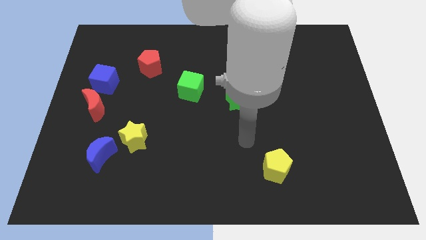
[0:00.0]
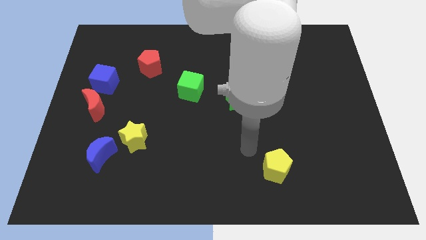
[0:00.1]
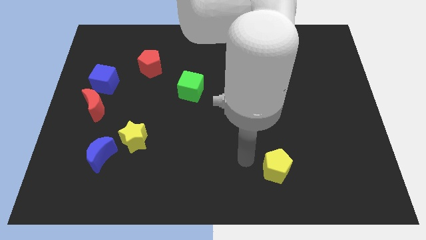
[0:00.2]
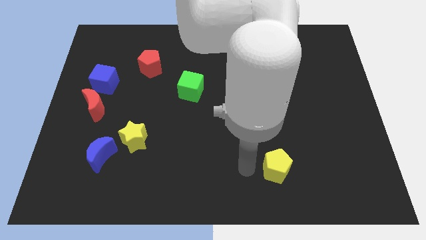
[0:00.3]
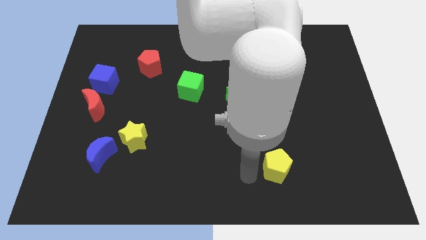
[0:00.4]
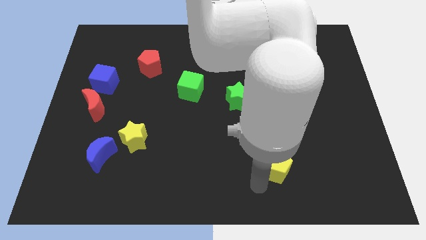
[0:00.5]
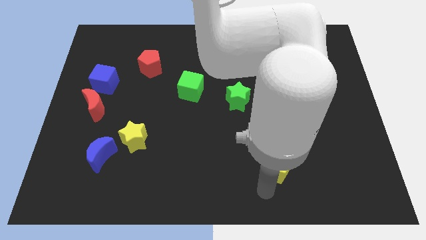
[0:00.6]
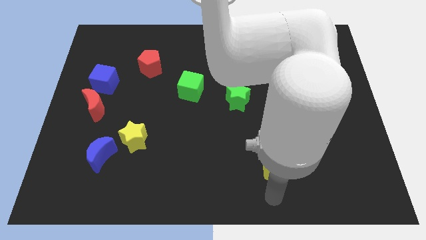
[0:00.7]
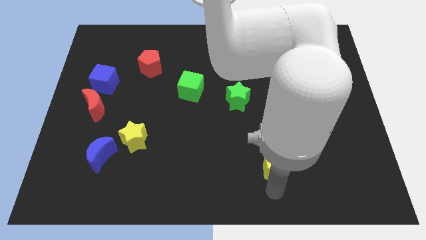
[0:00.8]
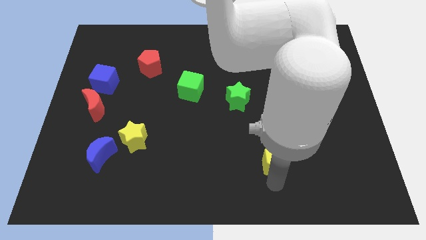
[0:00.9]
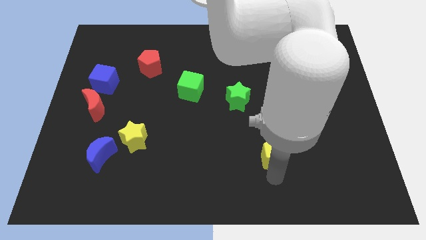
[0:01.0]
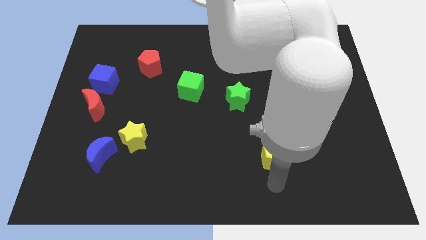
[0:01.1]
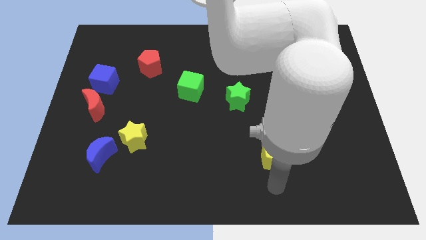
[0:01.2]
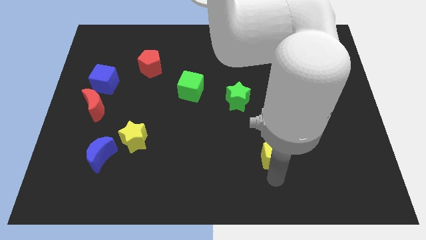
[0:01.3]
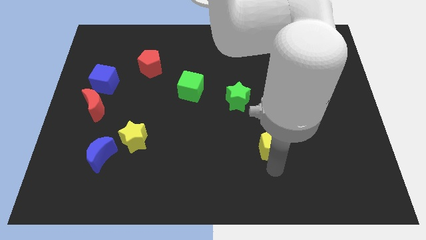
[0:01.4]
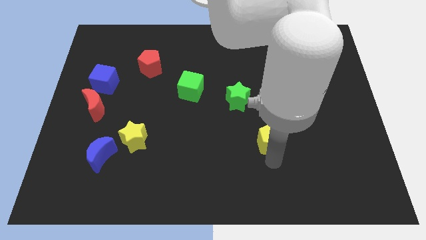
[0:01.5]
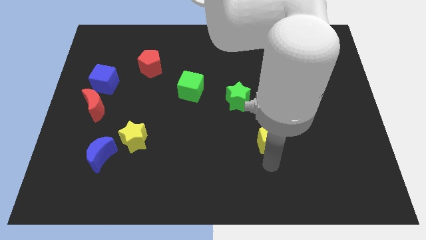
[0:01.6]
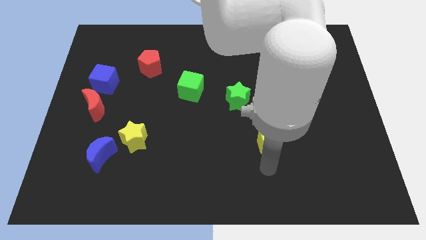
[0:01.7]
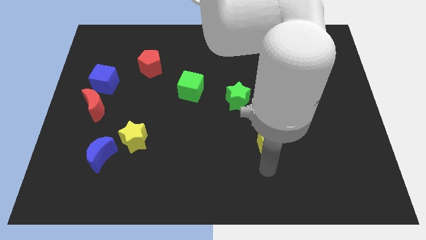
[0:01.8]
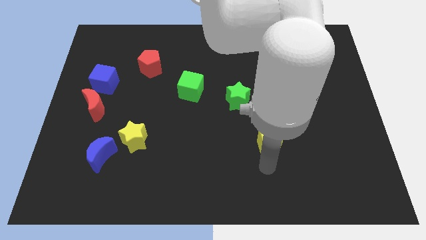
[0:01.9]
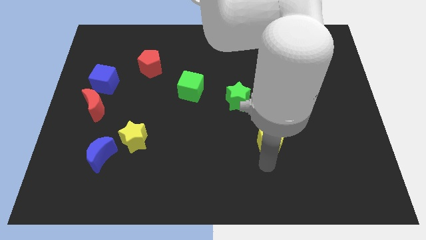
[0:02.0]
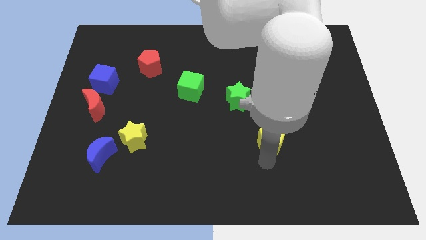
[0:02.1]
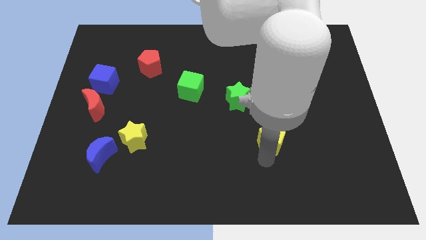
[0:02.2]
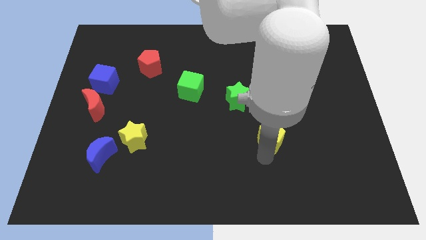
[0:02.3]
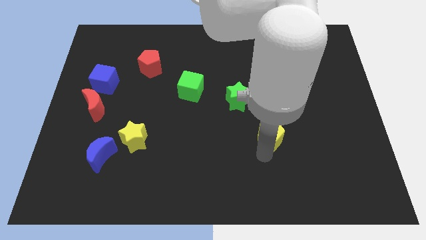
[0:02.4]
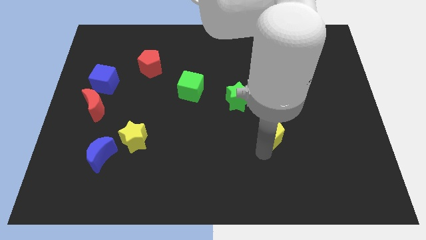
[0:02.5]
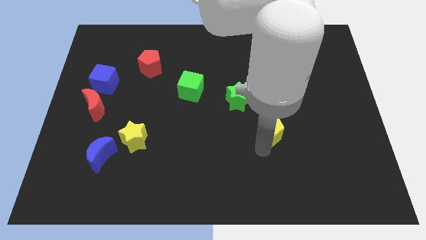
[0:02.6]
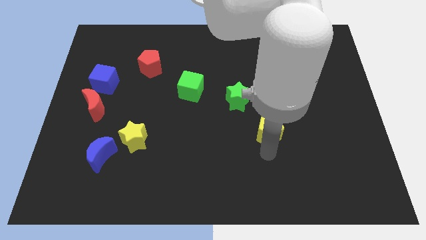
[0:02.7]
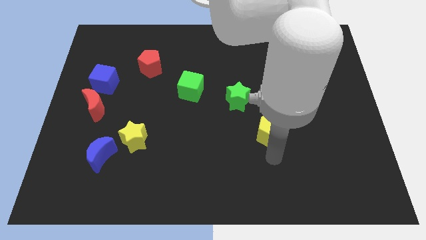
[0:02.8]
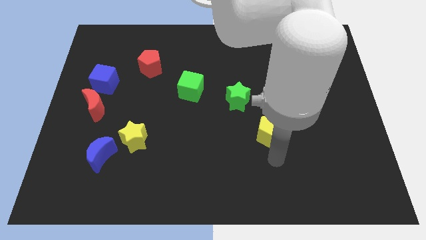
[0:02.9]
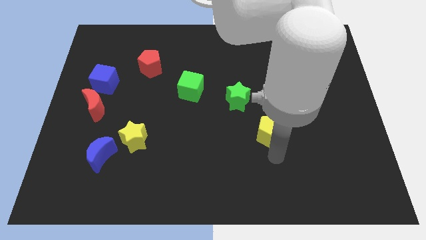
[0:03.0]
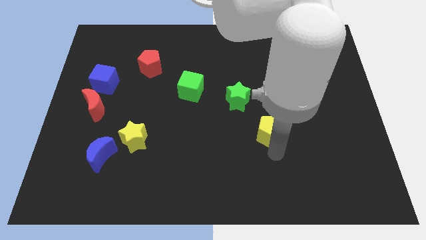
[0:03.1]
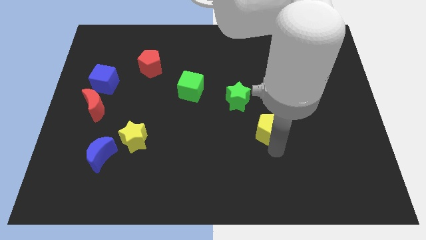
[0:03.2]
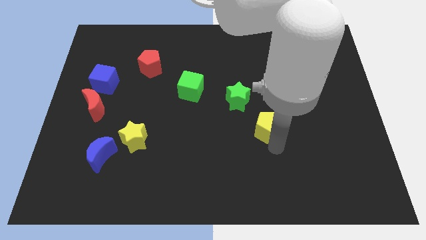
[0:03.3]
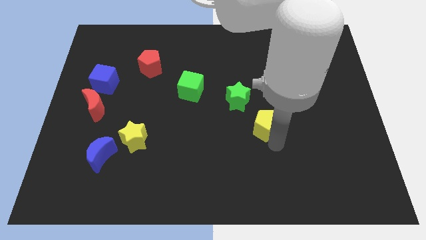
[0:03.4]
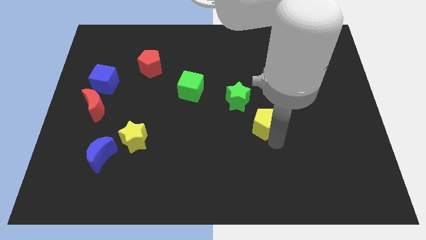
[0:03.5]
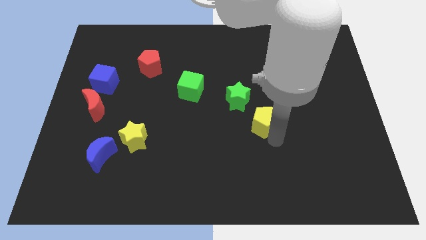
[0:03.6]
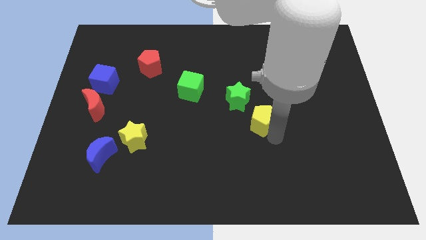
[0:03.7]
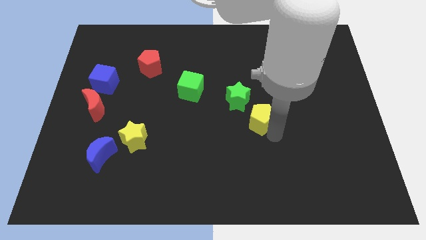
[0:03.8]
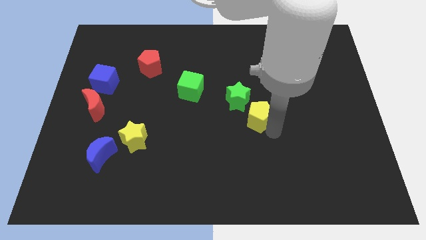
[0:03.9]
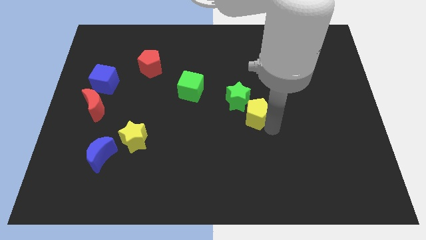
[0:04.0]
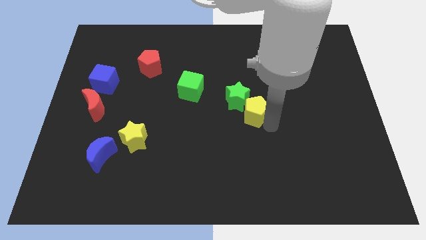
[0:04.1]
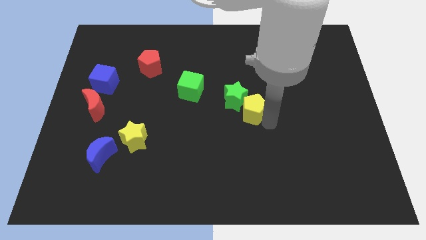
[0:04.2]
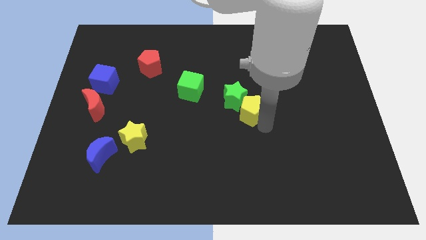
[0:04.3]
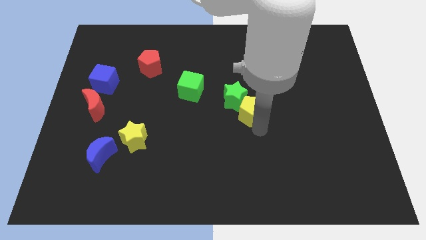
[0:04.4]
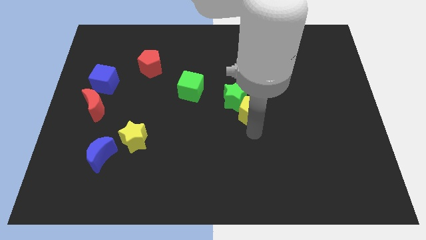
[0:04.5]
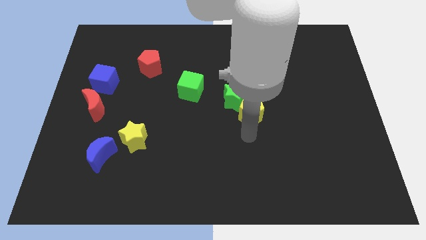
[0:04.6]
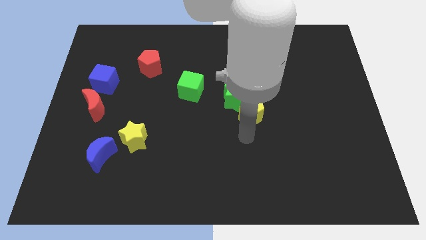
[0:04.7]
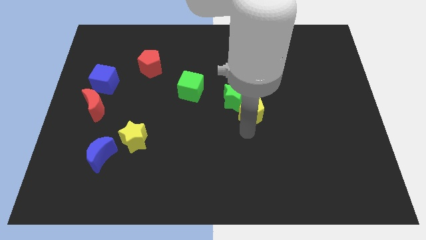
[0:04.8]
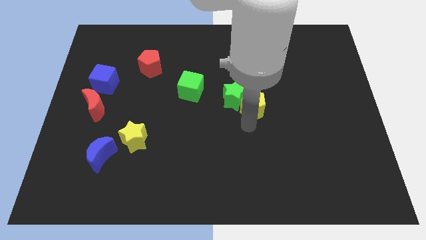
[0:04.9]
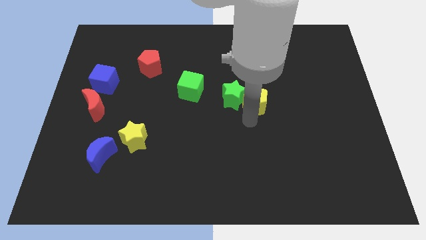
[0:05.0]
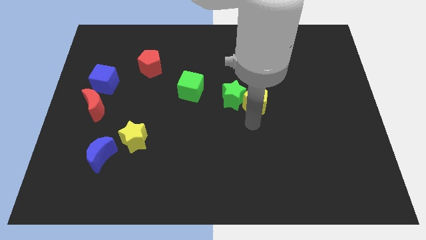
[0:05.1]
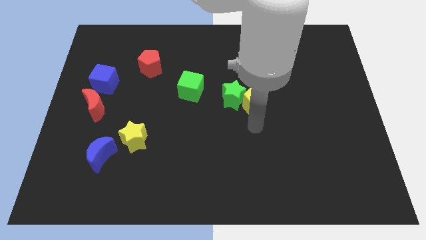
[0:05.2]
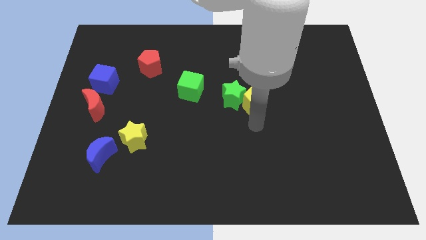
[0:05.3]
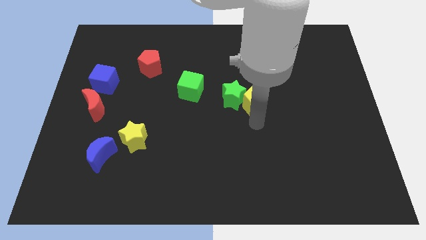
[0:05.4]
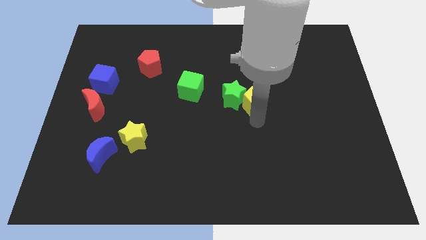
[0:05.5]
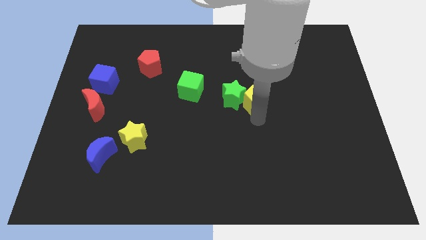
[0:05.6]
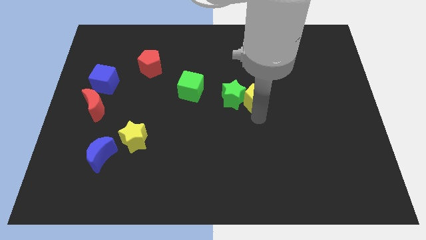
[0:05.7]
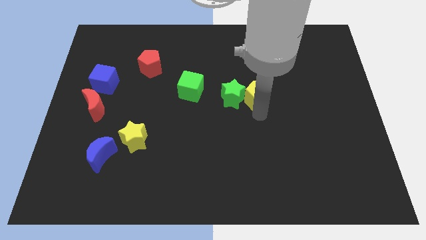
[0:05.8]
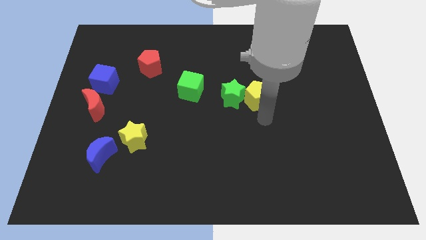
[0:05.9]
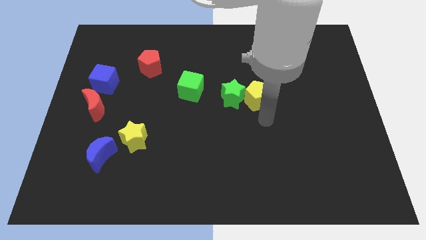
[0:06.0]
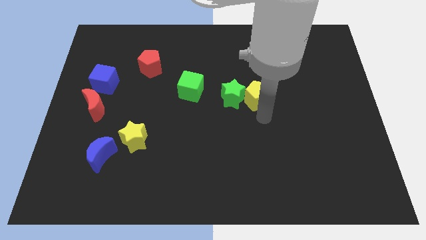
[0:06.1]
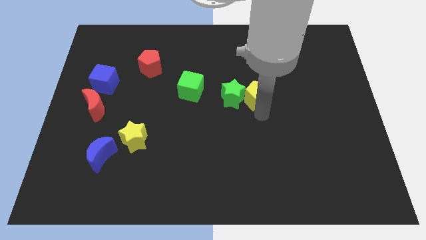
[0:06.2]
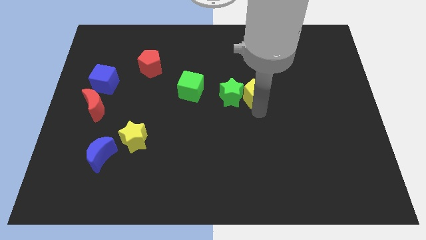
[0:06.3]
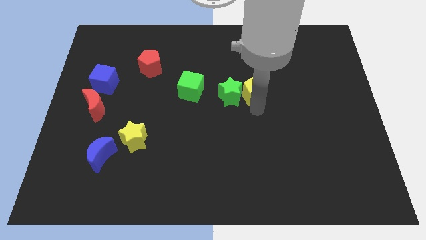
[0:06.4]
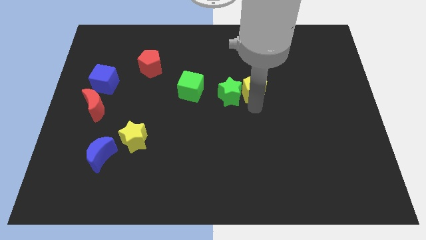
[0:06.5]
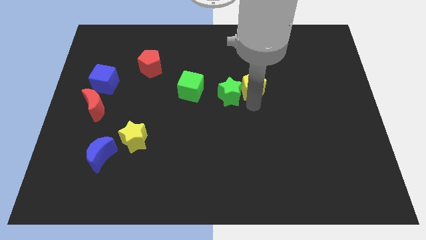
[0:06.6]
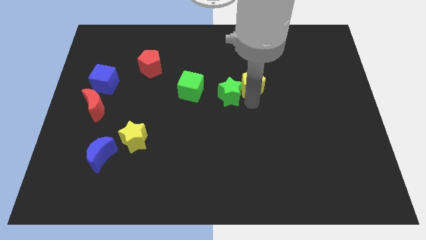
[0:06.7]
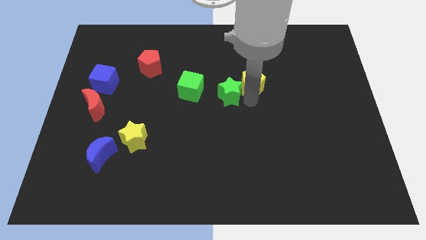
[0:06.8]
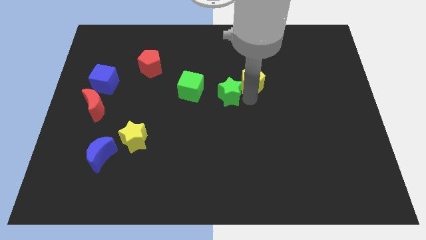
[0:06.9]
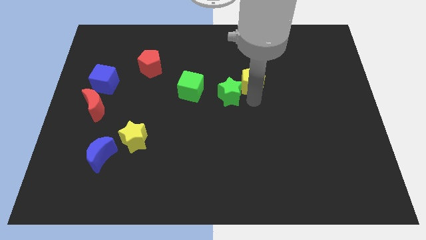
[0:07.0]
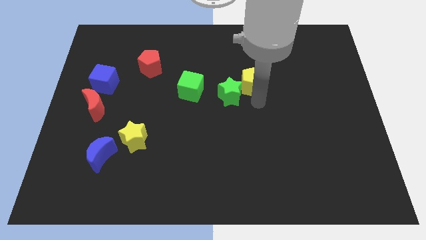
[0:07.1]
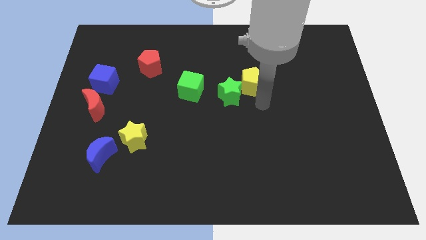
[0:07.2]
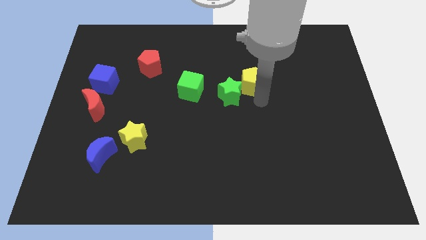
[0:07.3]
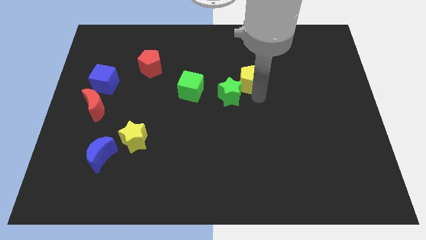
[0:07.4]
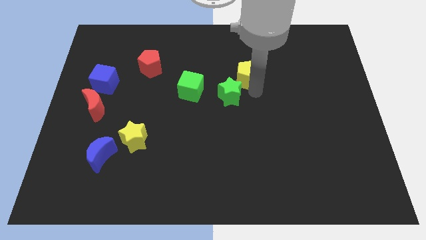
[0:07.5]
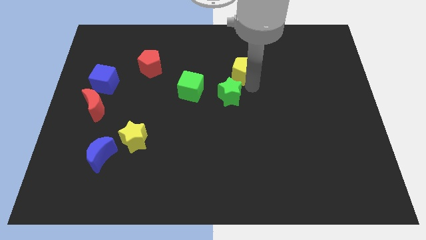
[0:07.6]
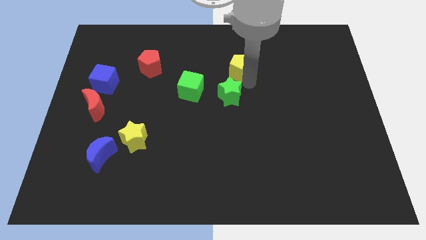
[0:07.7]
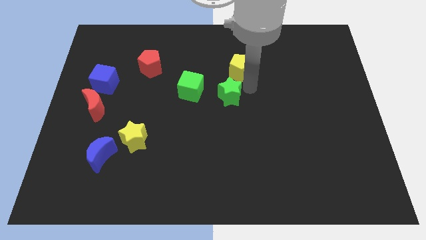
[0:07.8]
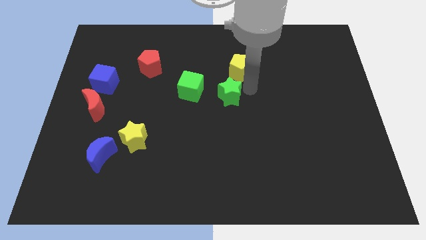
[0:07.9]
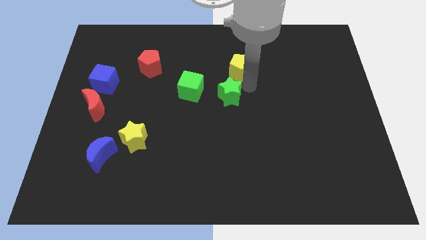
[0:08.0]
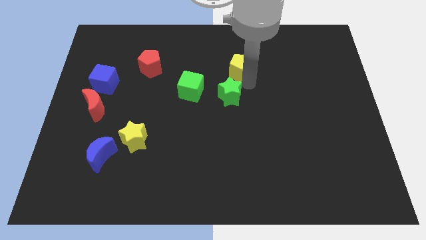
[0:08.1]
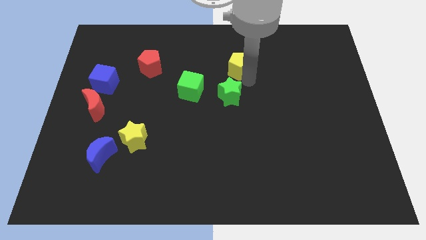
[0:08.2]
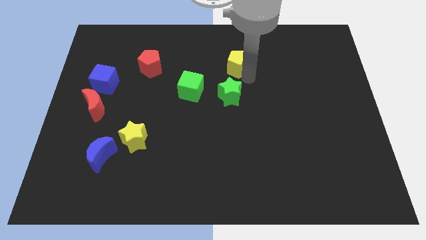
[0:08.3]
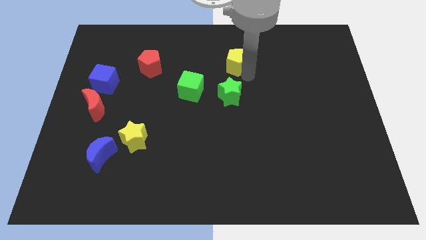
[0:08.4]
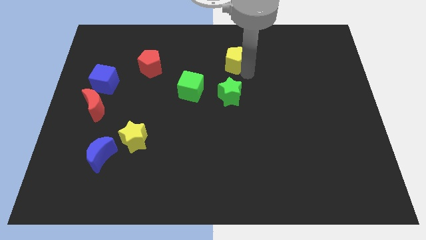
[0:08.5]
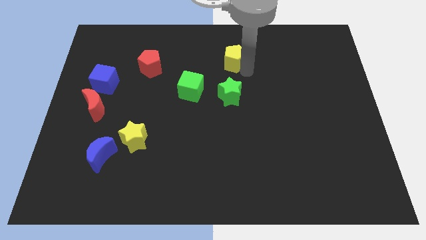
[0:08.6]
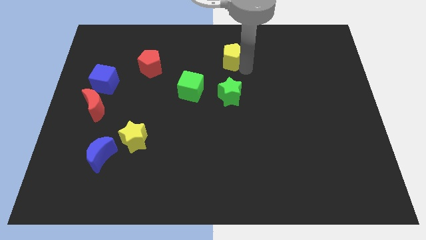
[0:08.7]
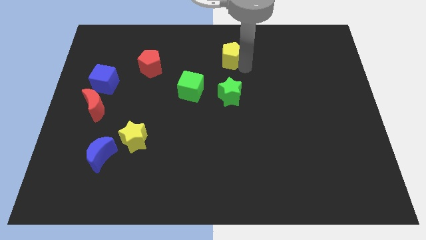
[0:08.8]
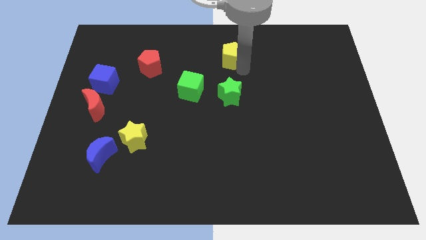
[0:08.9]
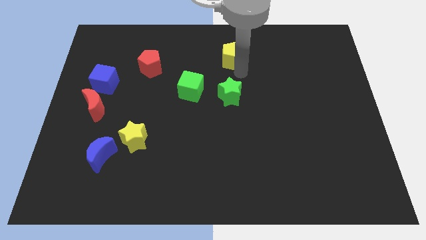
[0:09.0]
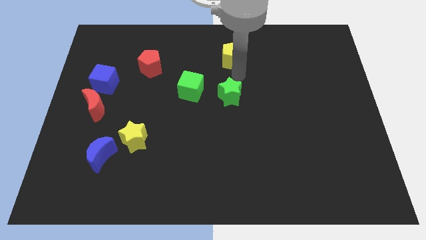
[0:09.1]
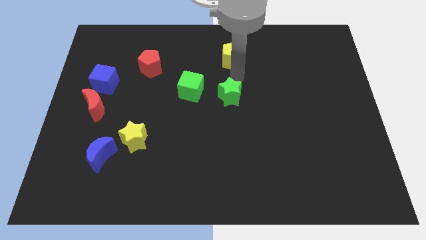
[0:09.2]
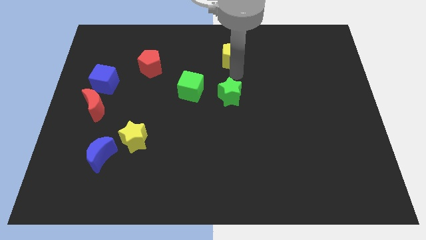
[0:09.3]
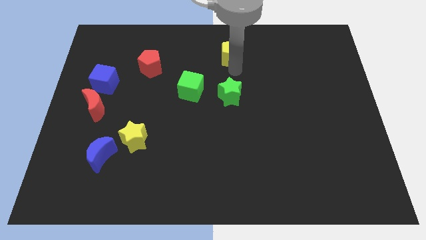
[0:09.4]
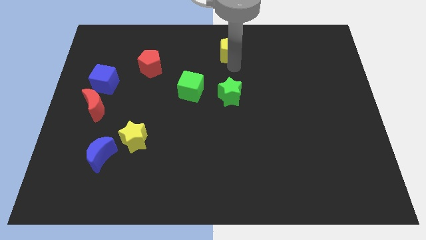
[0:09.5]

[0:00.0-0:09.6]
put the yellow pentagon to the top
